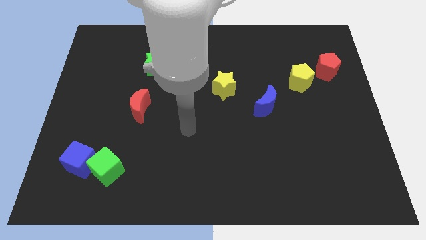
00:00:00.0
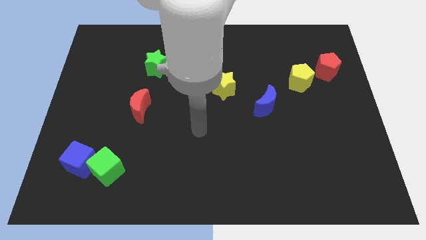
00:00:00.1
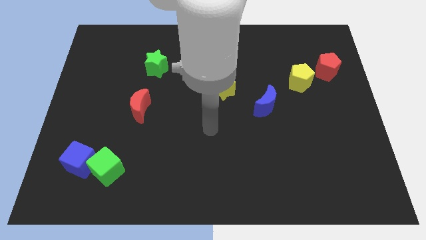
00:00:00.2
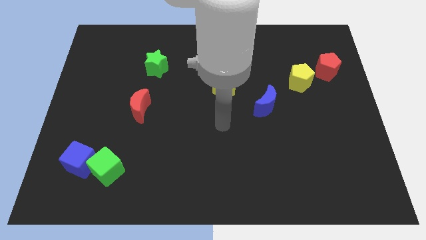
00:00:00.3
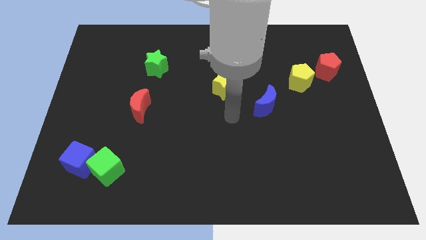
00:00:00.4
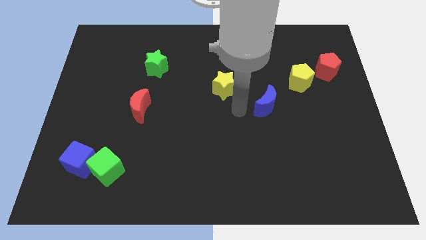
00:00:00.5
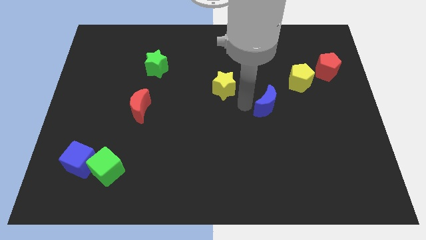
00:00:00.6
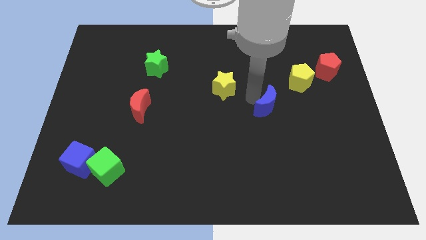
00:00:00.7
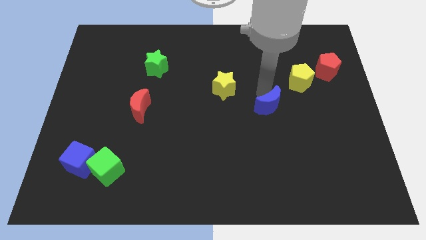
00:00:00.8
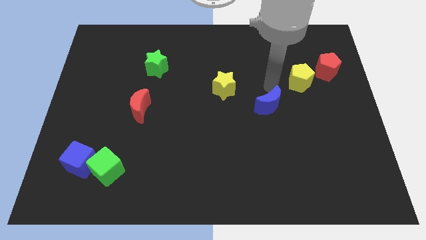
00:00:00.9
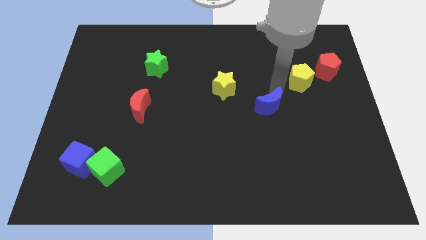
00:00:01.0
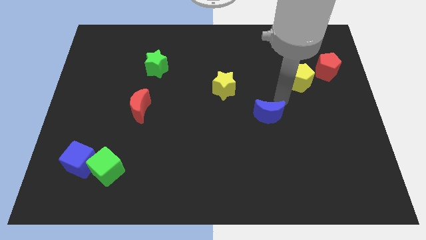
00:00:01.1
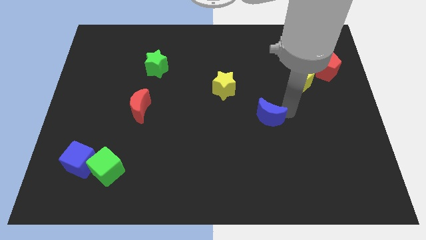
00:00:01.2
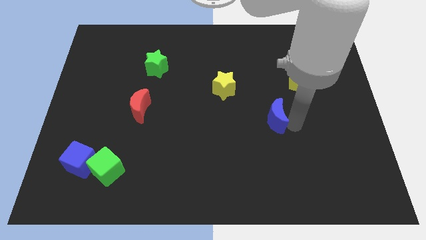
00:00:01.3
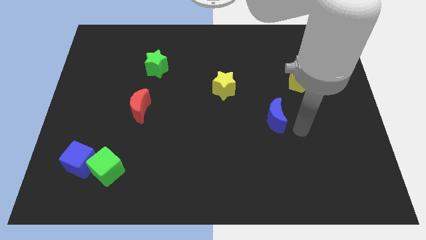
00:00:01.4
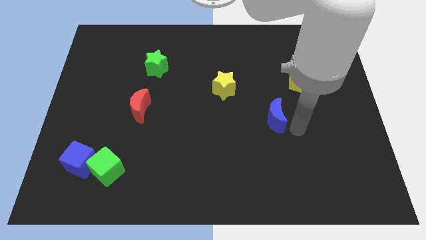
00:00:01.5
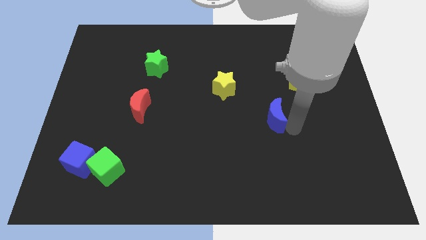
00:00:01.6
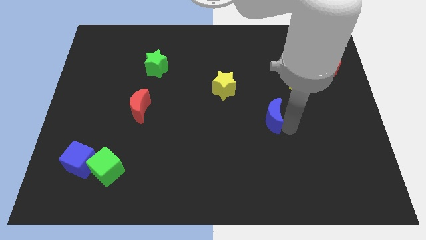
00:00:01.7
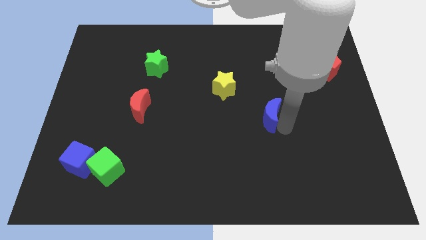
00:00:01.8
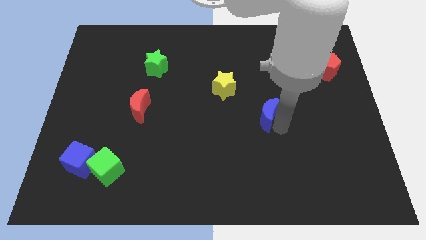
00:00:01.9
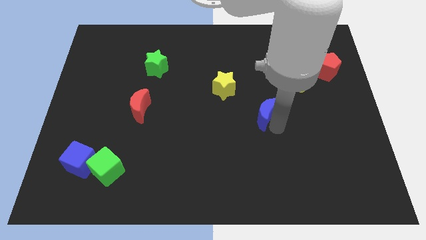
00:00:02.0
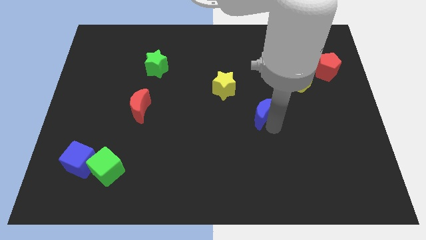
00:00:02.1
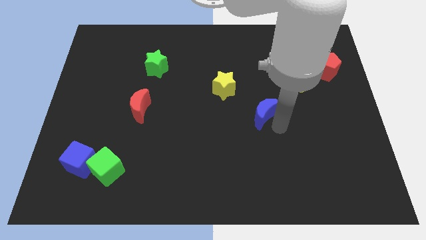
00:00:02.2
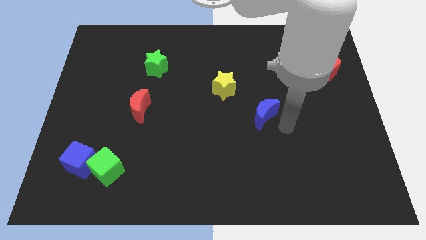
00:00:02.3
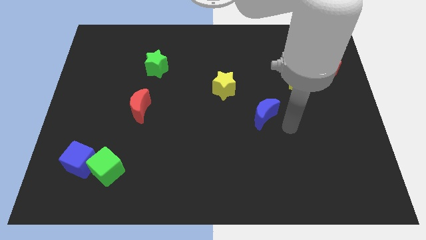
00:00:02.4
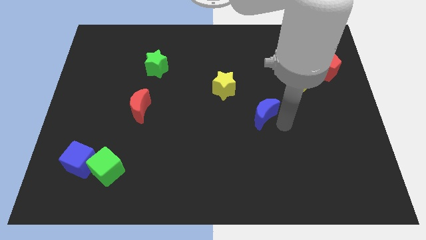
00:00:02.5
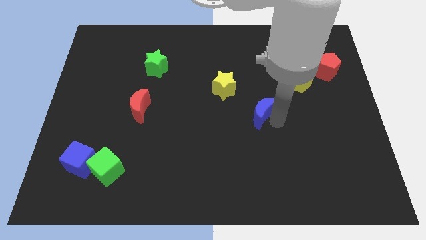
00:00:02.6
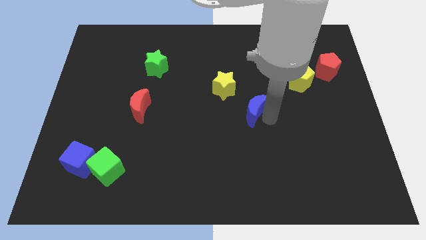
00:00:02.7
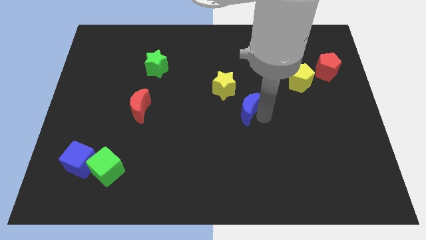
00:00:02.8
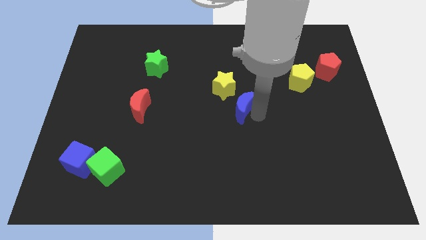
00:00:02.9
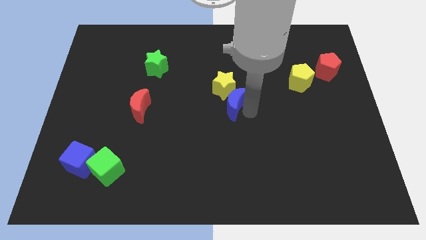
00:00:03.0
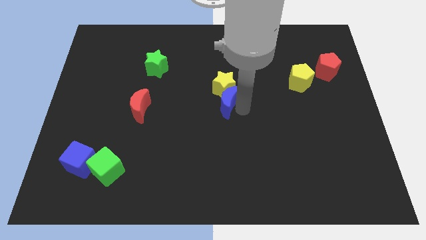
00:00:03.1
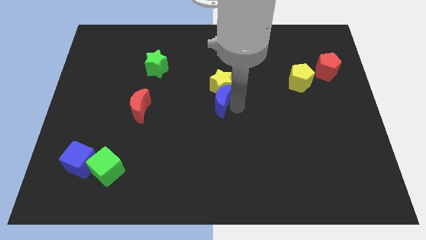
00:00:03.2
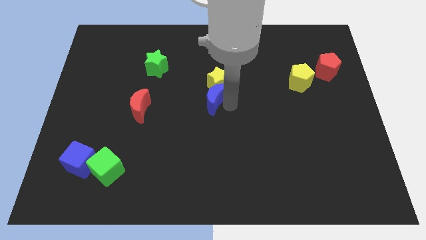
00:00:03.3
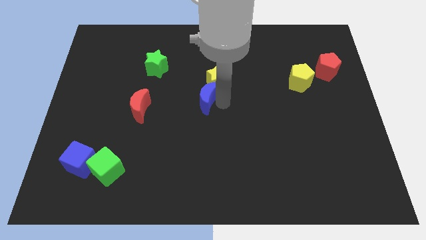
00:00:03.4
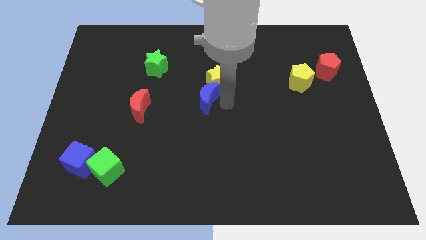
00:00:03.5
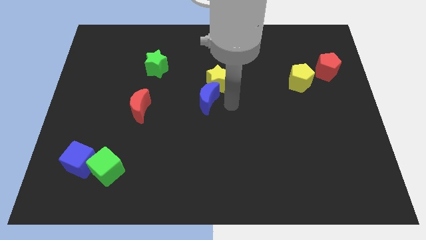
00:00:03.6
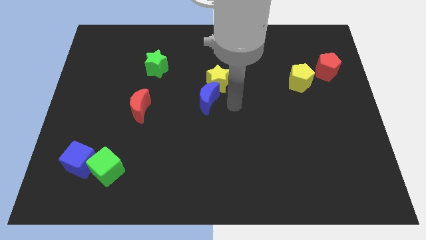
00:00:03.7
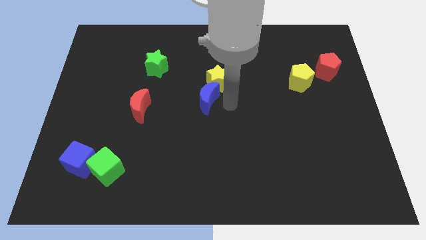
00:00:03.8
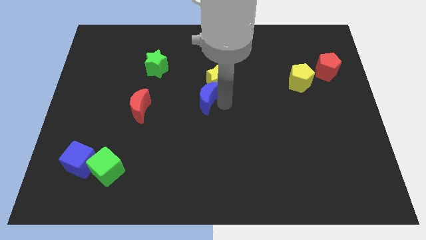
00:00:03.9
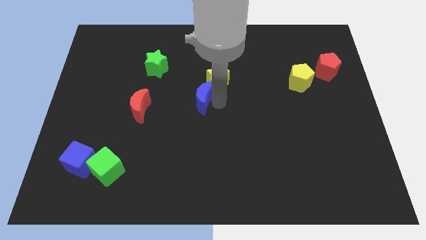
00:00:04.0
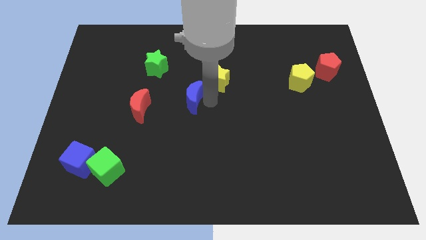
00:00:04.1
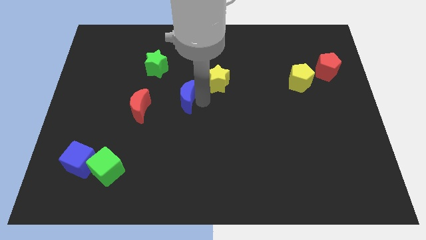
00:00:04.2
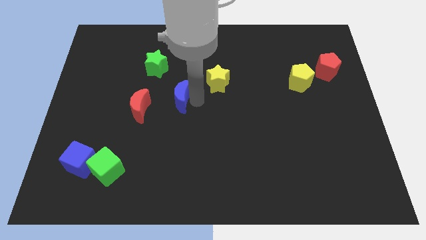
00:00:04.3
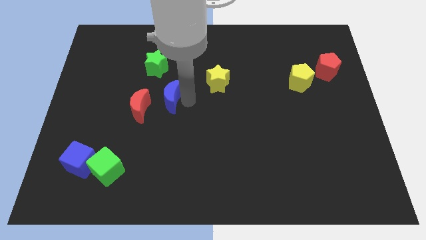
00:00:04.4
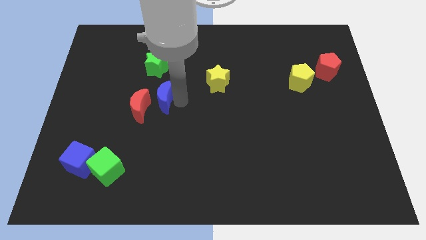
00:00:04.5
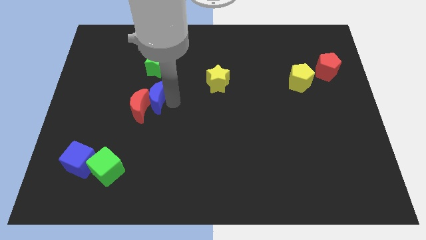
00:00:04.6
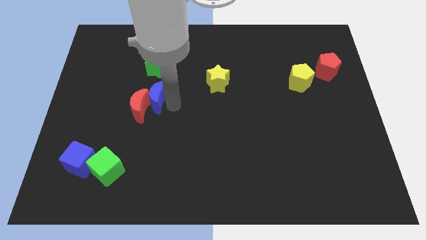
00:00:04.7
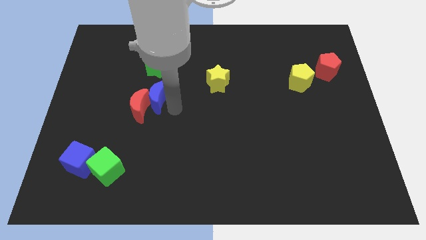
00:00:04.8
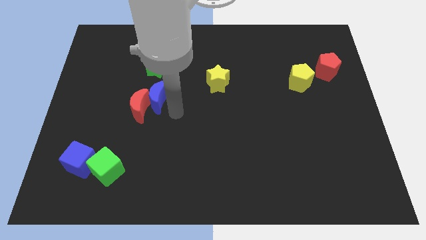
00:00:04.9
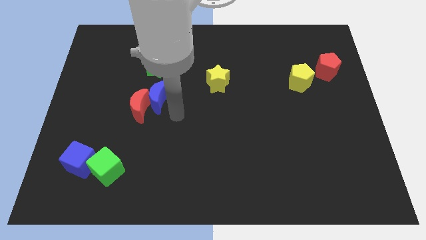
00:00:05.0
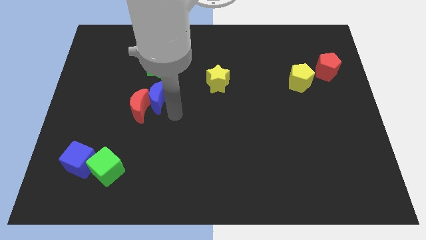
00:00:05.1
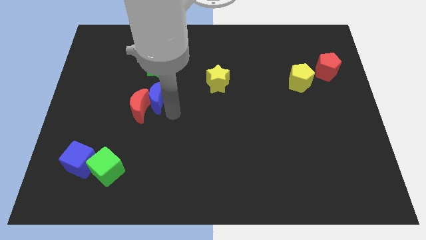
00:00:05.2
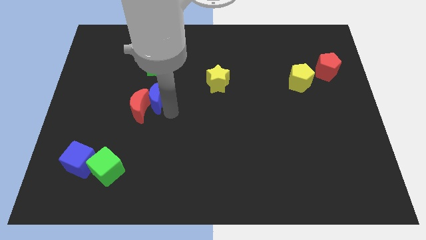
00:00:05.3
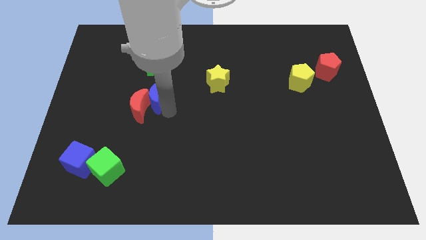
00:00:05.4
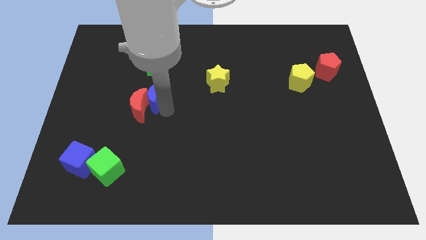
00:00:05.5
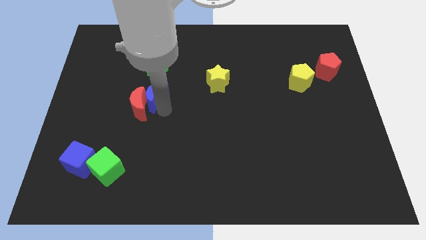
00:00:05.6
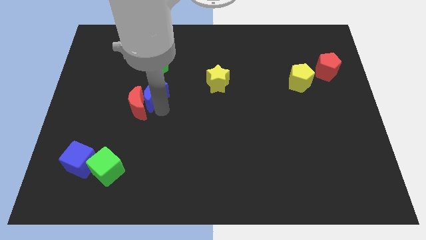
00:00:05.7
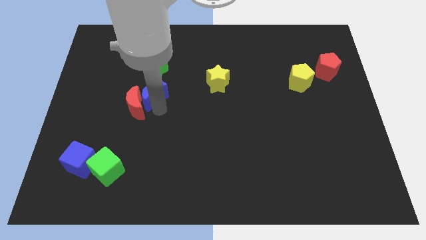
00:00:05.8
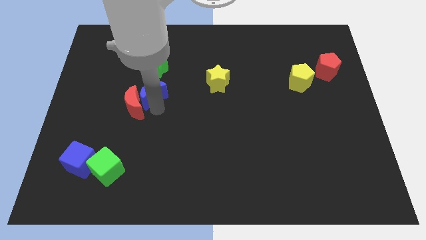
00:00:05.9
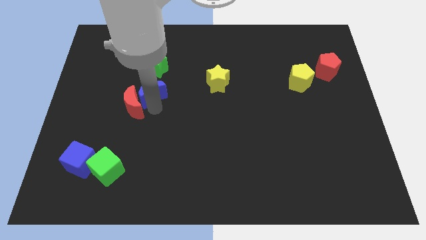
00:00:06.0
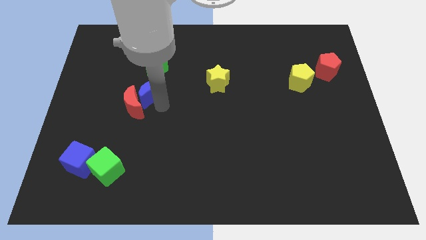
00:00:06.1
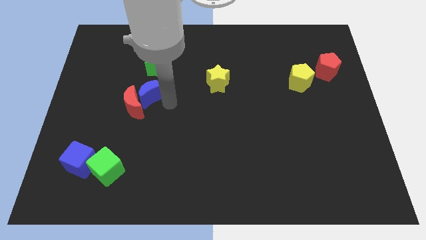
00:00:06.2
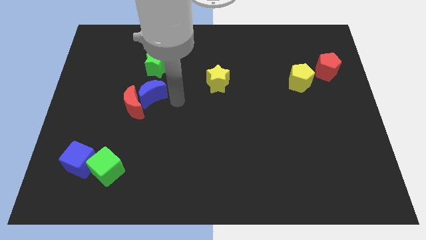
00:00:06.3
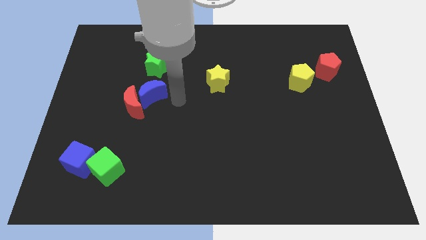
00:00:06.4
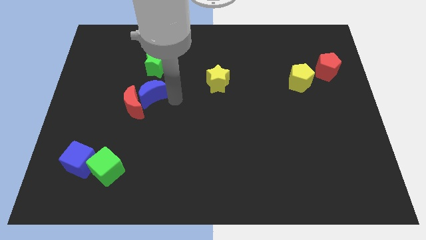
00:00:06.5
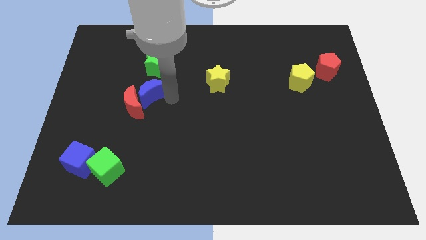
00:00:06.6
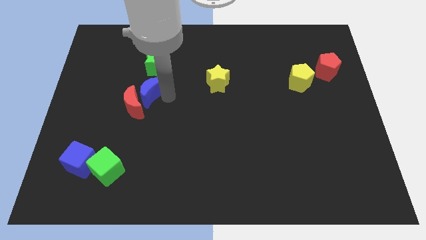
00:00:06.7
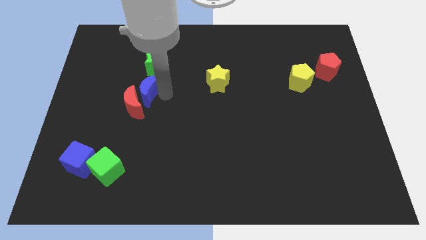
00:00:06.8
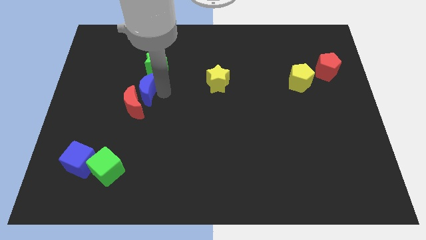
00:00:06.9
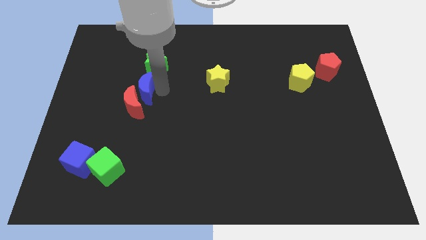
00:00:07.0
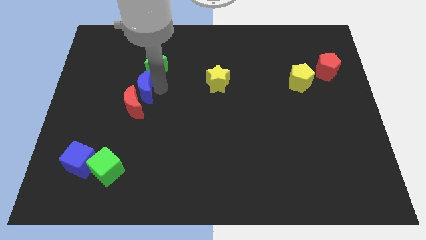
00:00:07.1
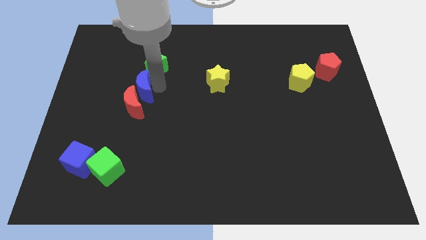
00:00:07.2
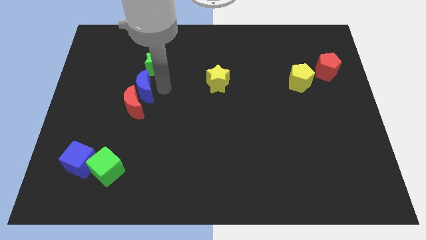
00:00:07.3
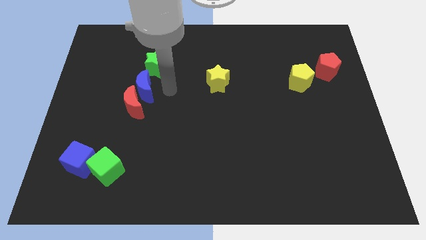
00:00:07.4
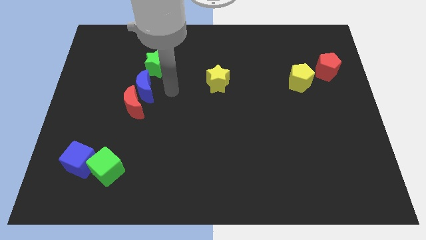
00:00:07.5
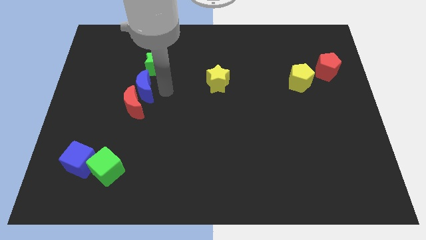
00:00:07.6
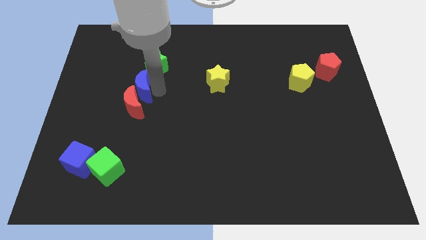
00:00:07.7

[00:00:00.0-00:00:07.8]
move the blue moon to the top left side of the red moon
